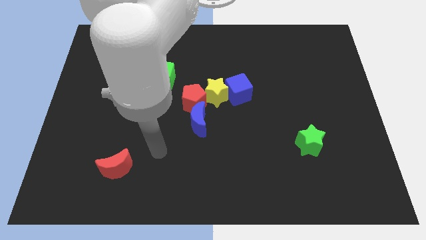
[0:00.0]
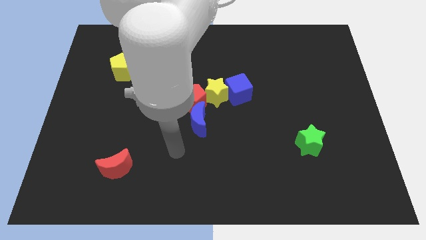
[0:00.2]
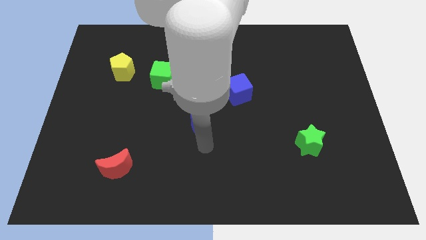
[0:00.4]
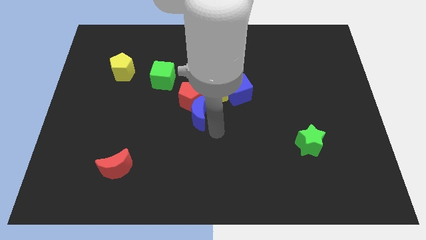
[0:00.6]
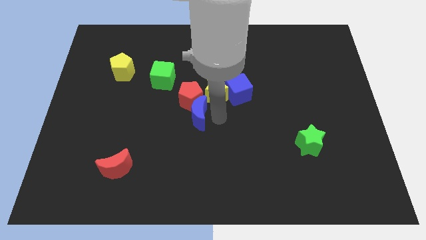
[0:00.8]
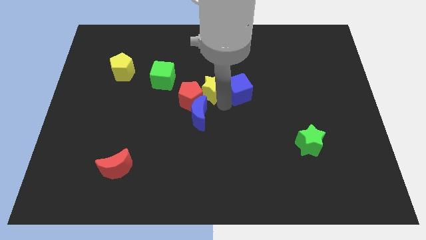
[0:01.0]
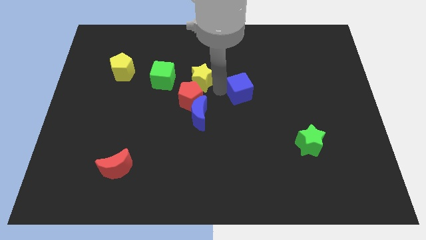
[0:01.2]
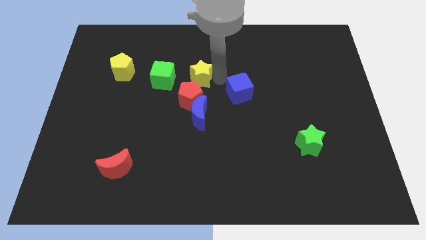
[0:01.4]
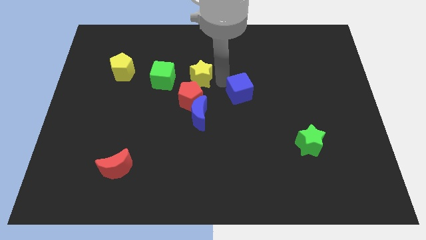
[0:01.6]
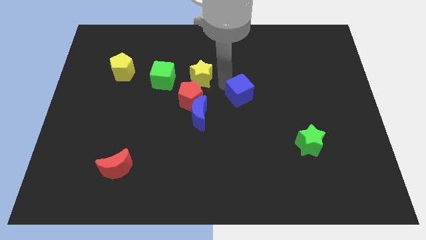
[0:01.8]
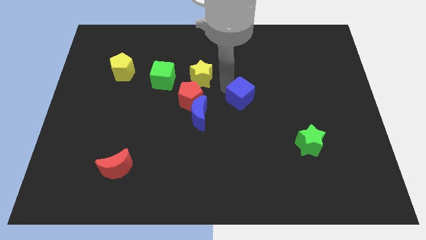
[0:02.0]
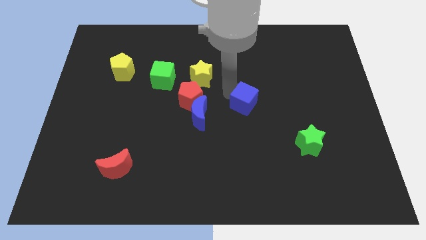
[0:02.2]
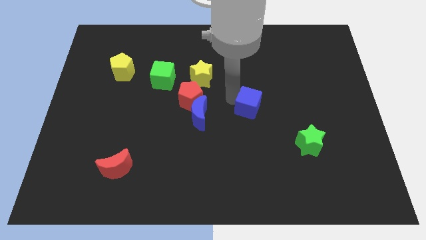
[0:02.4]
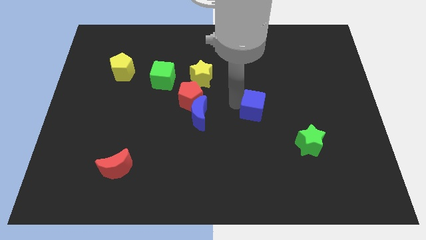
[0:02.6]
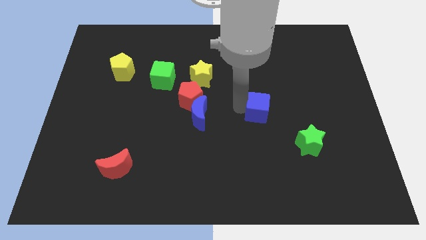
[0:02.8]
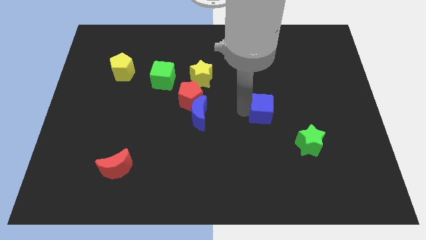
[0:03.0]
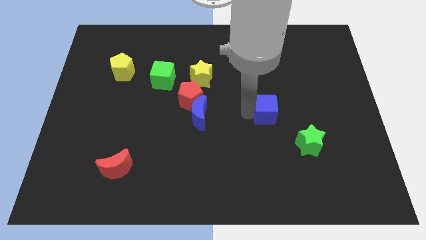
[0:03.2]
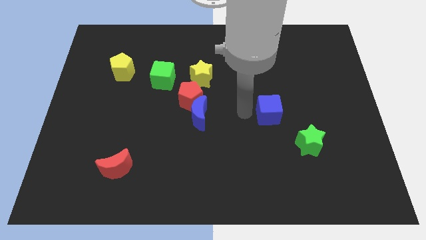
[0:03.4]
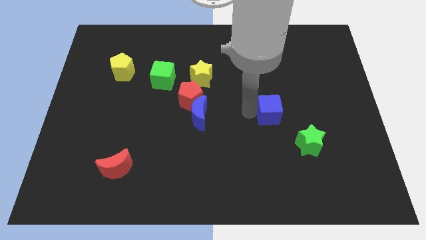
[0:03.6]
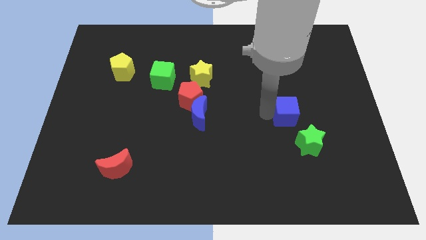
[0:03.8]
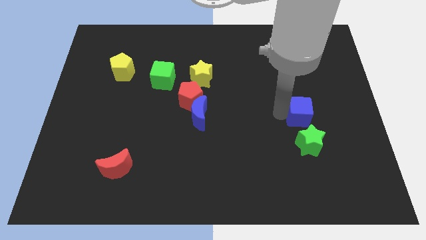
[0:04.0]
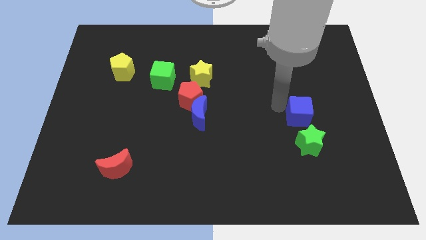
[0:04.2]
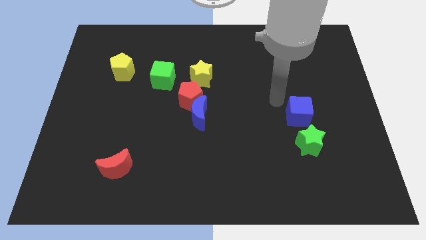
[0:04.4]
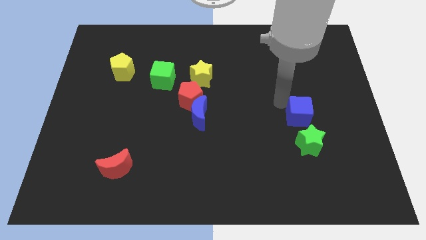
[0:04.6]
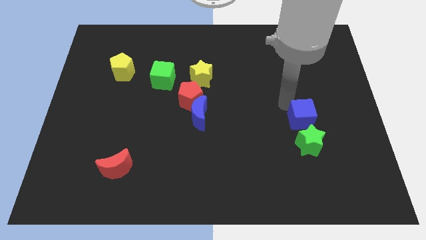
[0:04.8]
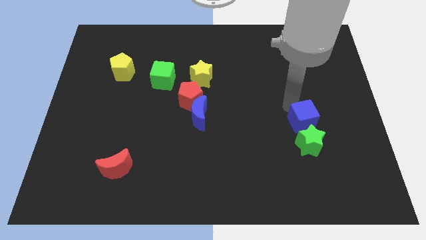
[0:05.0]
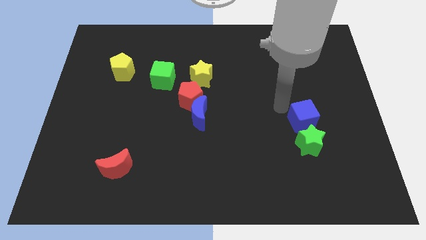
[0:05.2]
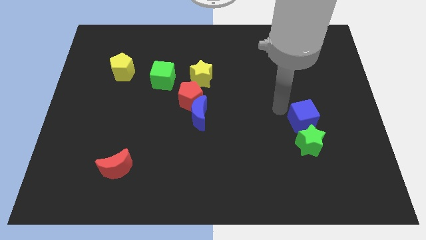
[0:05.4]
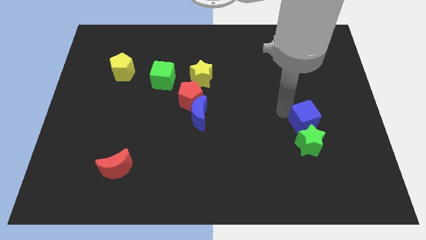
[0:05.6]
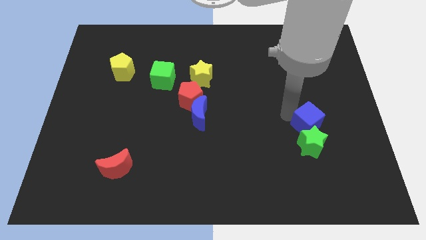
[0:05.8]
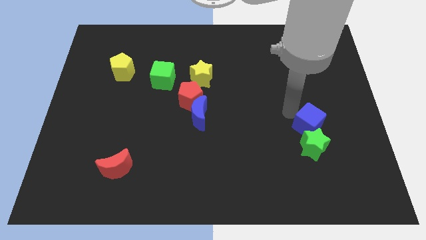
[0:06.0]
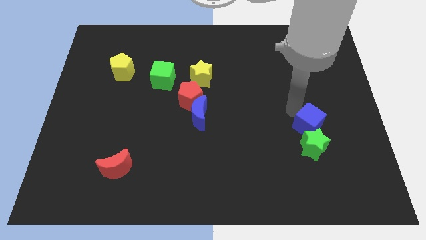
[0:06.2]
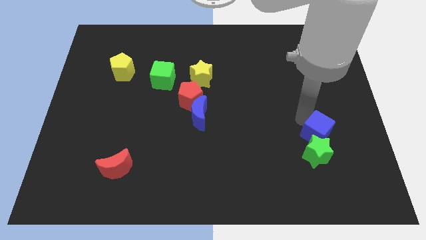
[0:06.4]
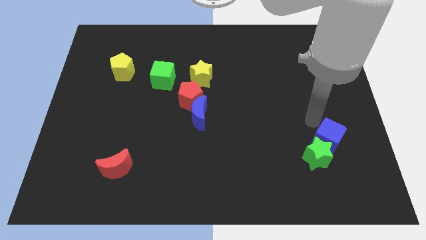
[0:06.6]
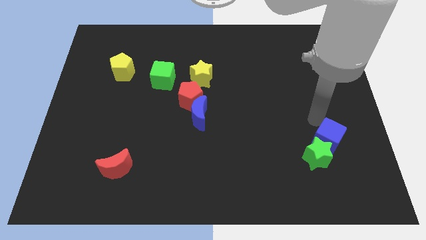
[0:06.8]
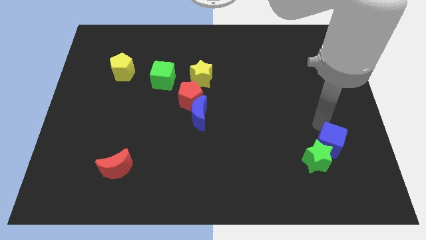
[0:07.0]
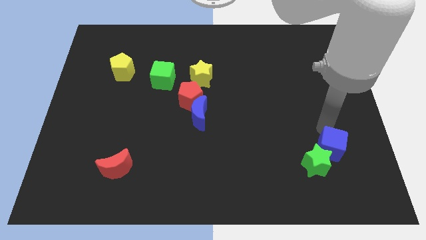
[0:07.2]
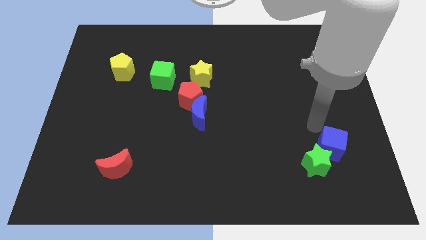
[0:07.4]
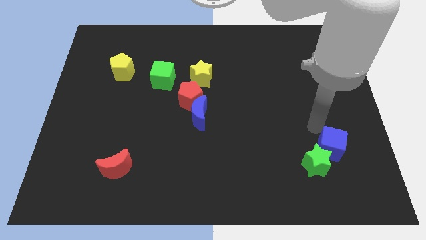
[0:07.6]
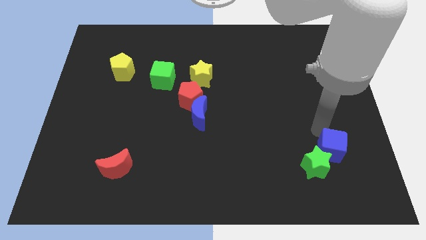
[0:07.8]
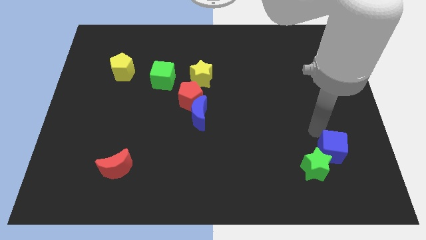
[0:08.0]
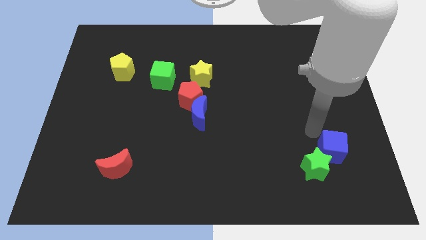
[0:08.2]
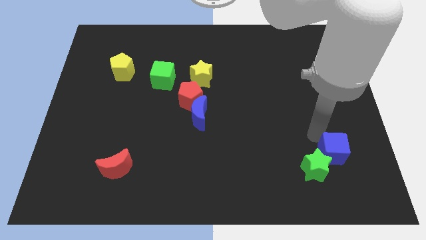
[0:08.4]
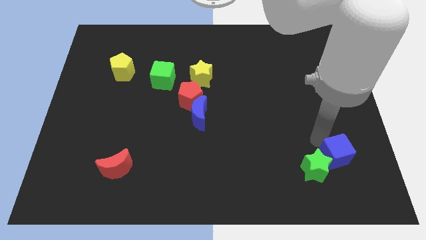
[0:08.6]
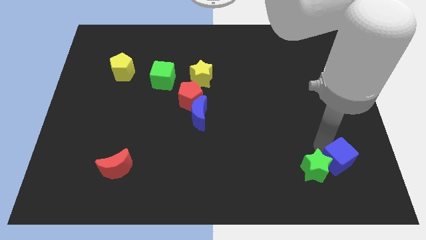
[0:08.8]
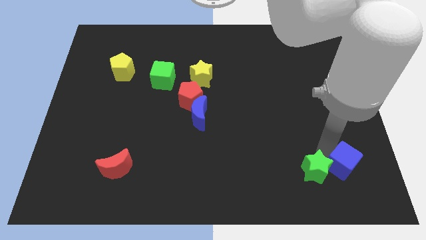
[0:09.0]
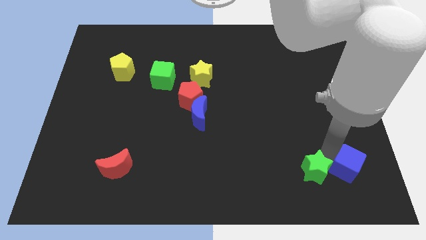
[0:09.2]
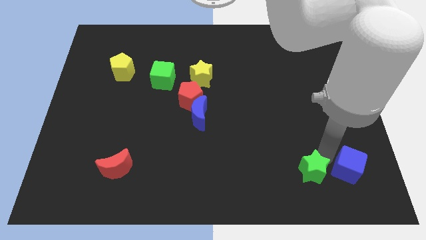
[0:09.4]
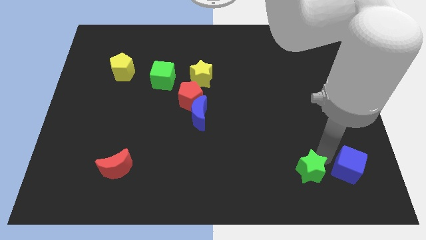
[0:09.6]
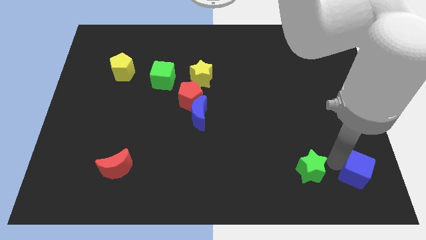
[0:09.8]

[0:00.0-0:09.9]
push the blue cube to the bottom right

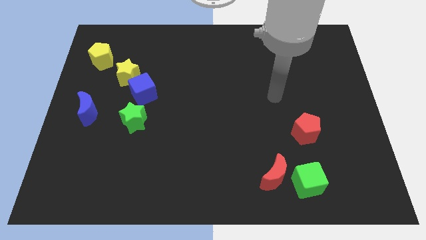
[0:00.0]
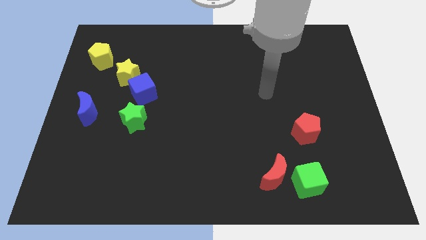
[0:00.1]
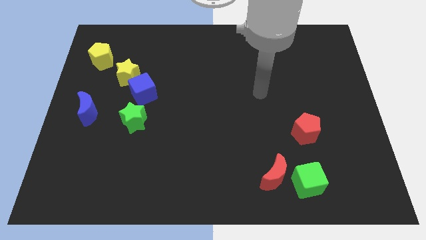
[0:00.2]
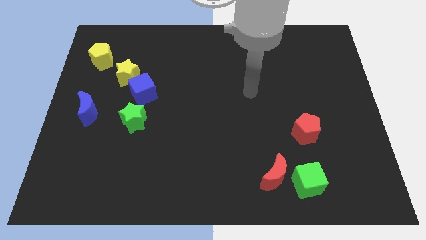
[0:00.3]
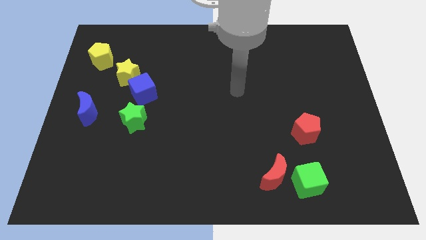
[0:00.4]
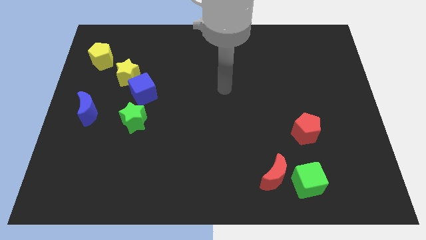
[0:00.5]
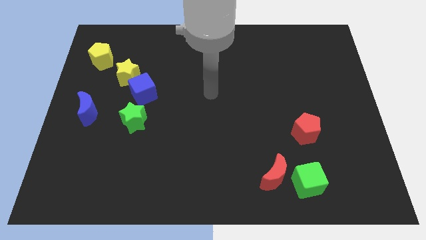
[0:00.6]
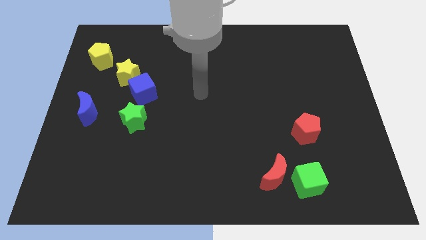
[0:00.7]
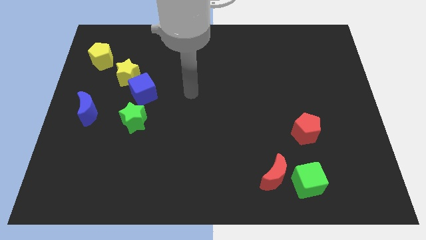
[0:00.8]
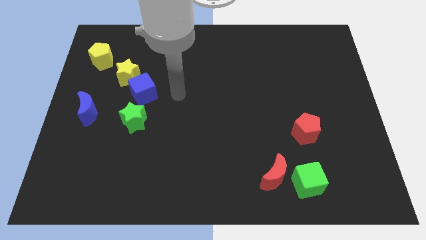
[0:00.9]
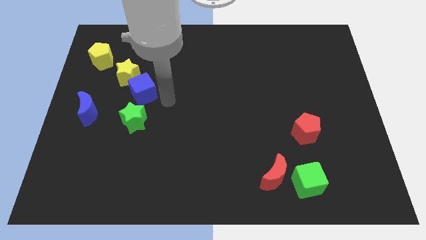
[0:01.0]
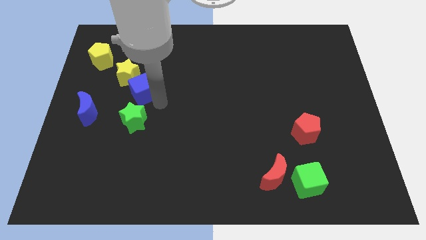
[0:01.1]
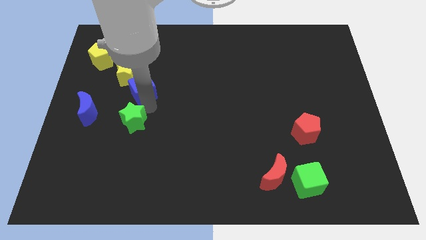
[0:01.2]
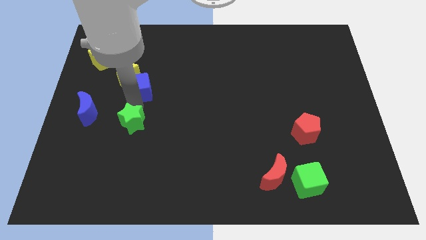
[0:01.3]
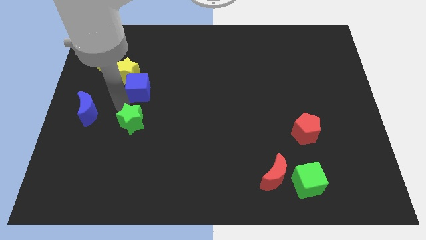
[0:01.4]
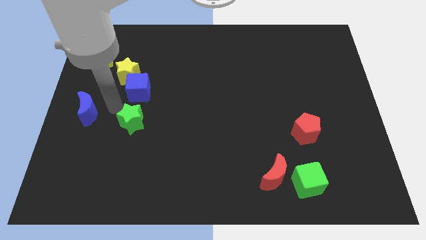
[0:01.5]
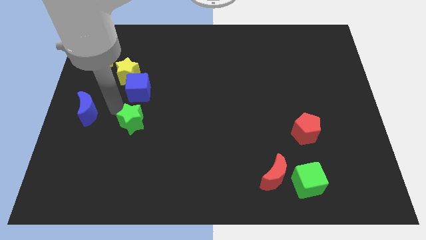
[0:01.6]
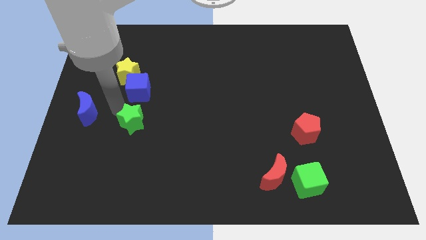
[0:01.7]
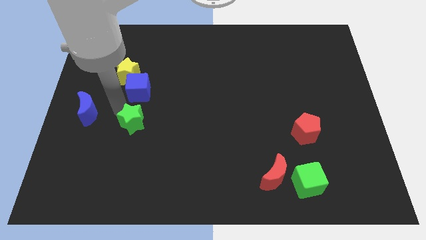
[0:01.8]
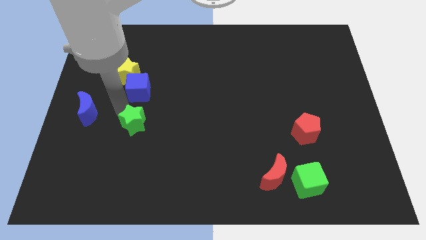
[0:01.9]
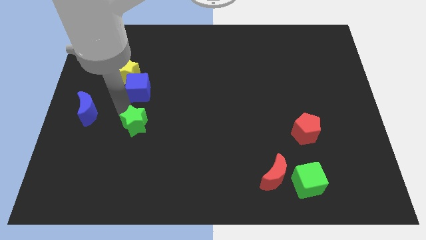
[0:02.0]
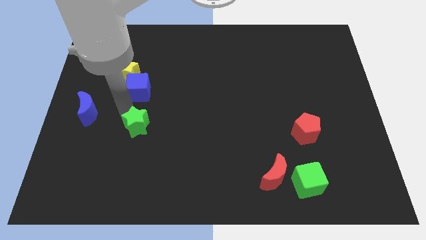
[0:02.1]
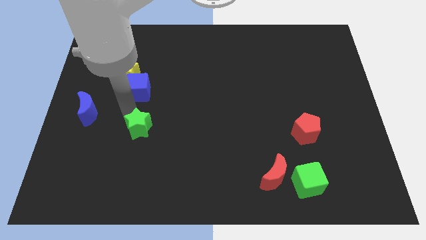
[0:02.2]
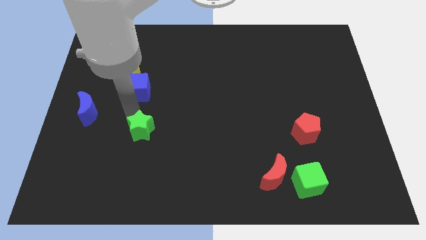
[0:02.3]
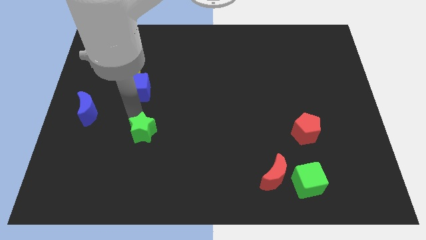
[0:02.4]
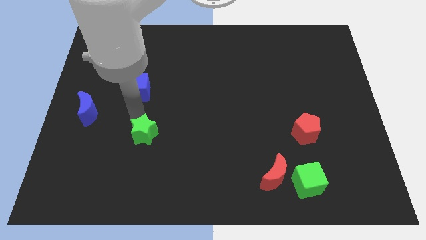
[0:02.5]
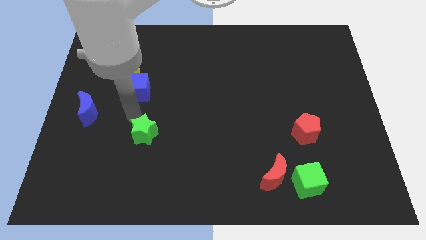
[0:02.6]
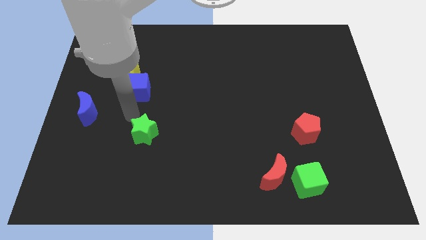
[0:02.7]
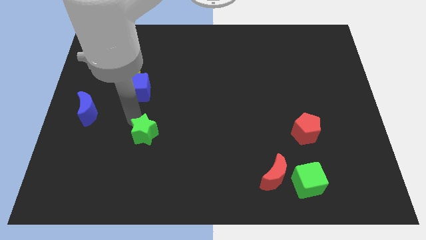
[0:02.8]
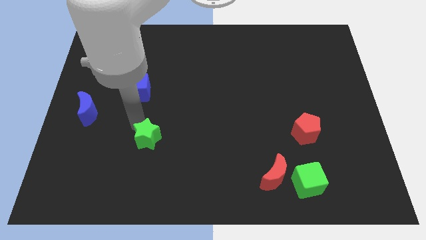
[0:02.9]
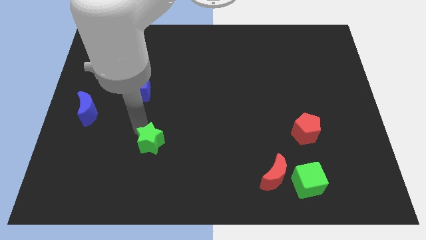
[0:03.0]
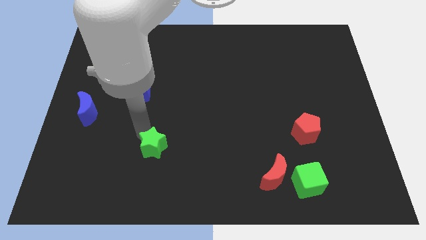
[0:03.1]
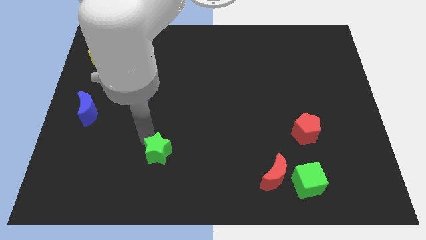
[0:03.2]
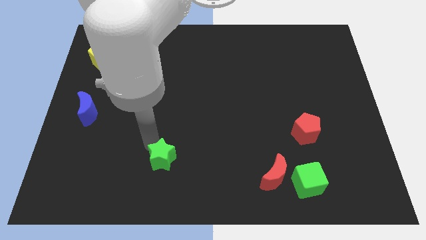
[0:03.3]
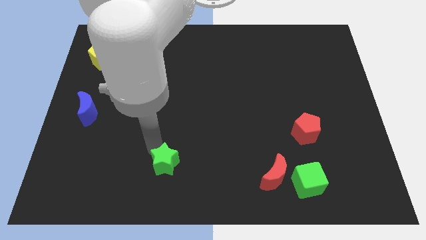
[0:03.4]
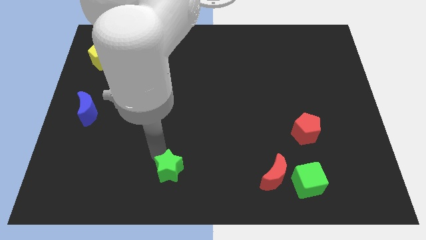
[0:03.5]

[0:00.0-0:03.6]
slide the green star to the bottom
